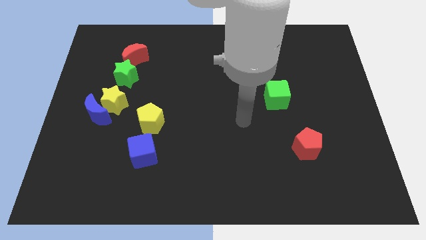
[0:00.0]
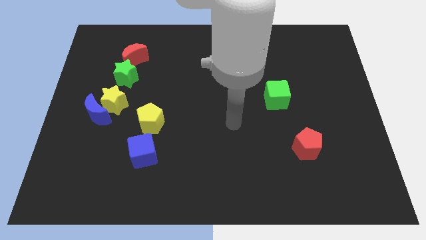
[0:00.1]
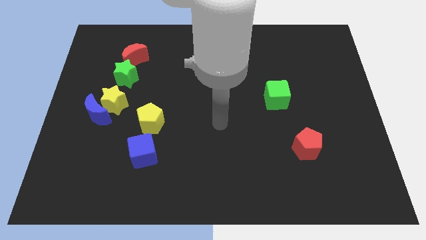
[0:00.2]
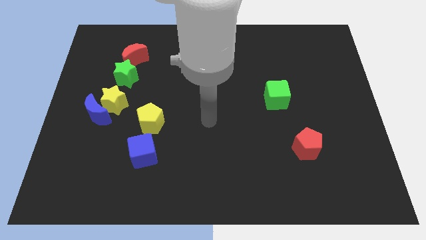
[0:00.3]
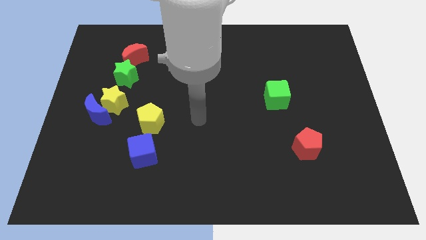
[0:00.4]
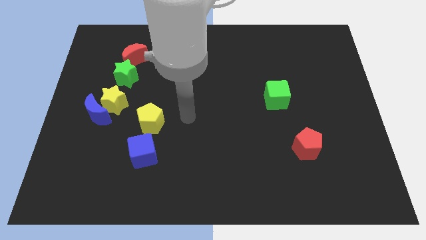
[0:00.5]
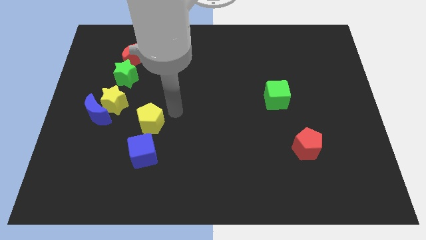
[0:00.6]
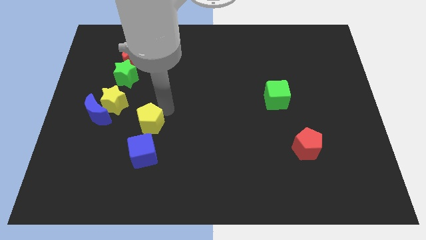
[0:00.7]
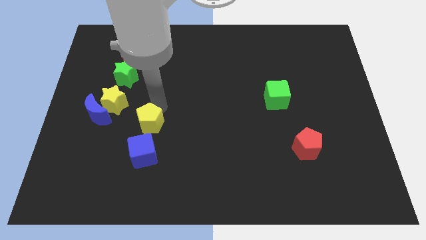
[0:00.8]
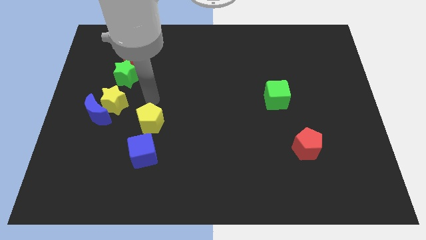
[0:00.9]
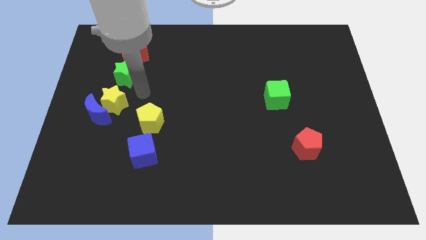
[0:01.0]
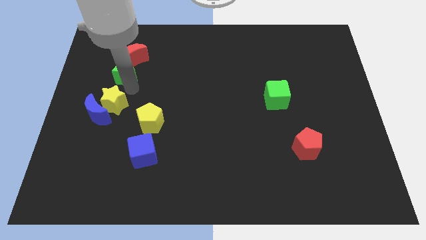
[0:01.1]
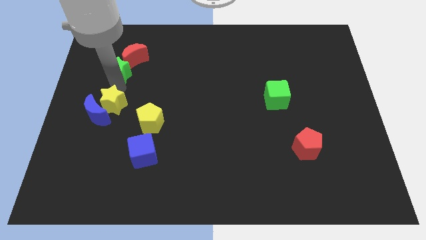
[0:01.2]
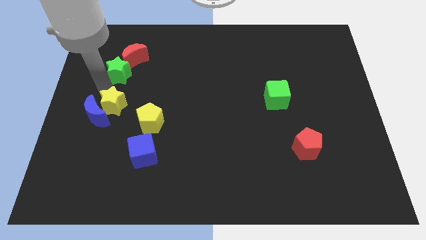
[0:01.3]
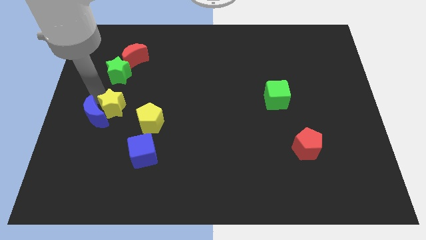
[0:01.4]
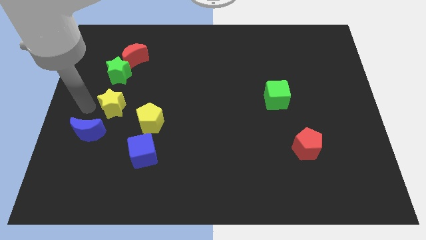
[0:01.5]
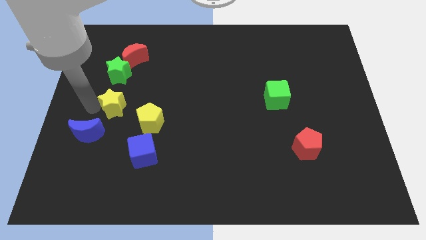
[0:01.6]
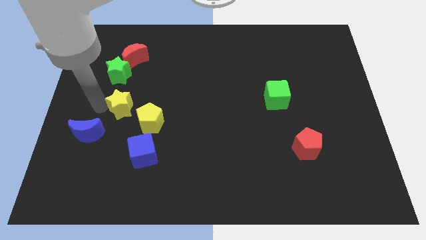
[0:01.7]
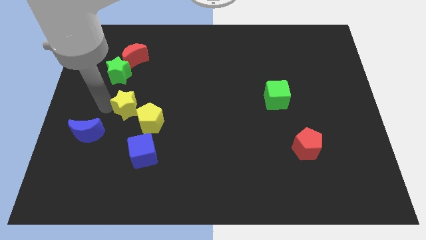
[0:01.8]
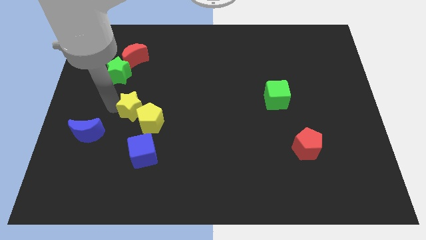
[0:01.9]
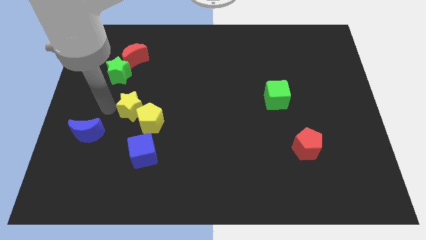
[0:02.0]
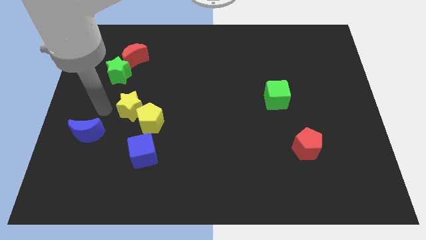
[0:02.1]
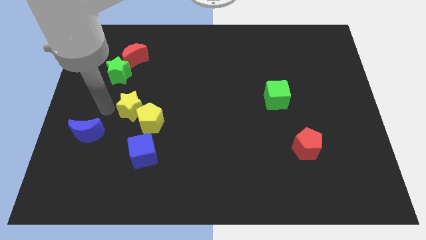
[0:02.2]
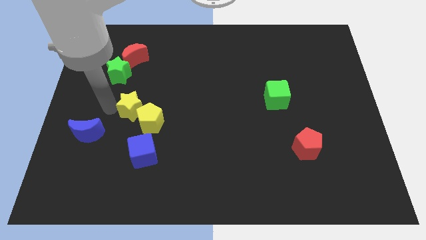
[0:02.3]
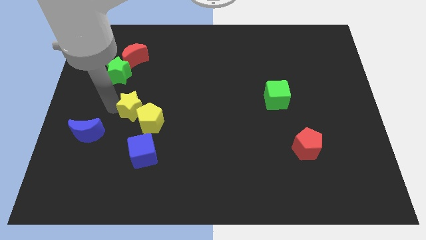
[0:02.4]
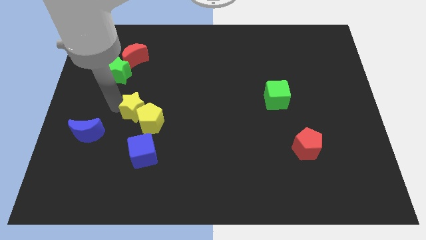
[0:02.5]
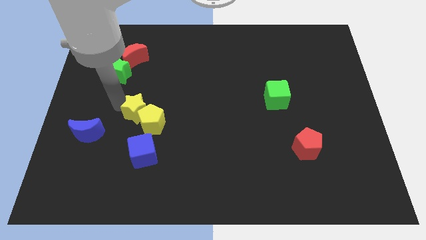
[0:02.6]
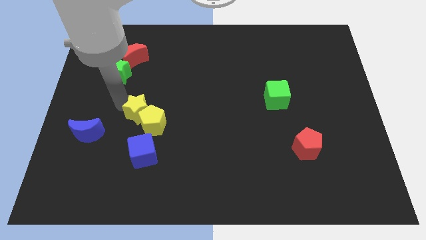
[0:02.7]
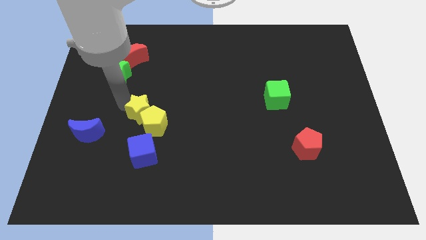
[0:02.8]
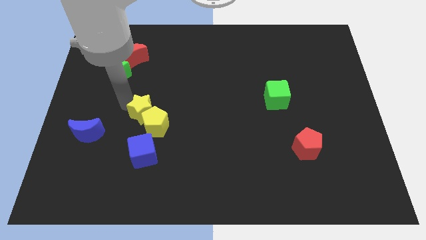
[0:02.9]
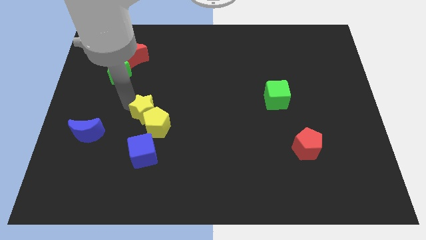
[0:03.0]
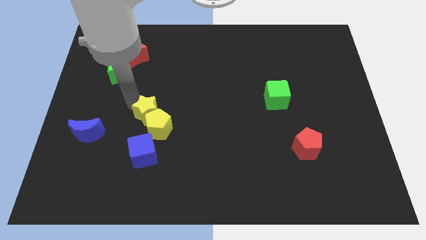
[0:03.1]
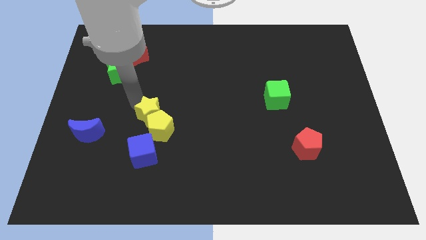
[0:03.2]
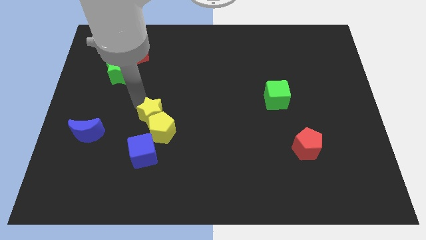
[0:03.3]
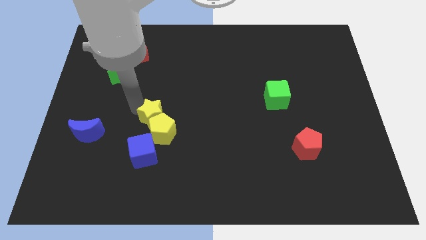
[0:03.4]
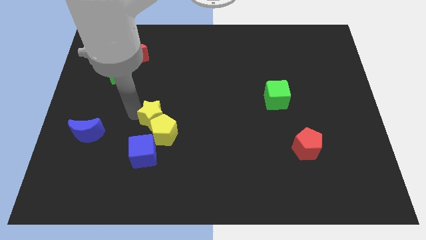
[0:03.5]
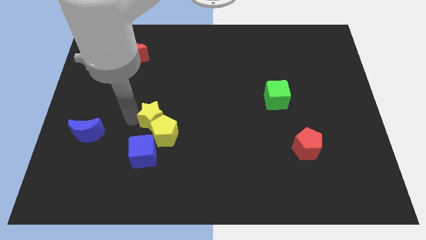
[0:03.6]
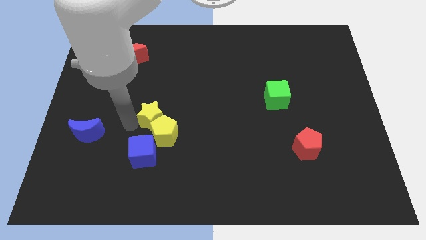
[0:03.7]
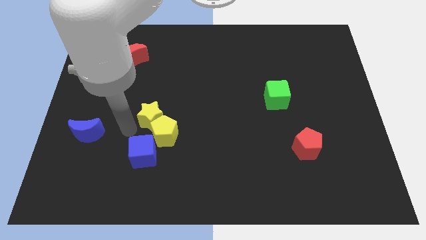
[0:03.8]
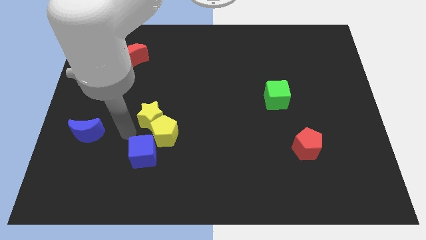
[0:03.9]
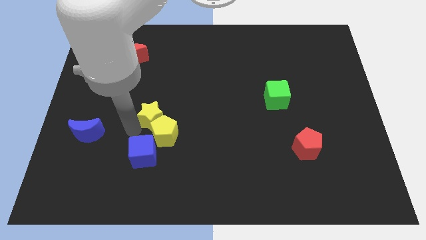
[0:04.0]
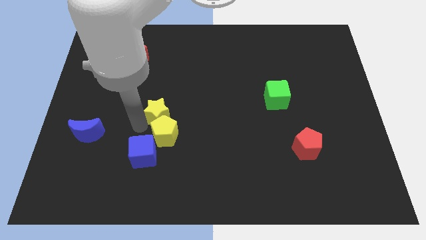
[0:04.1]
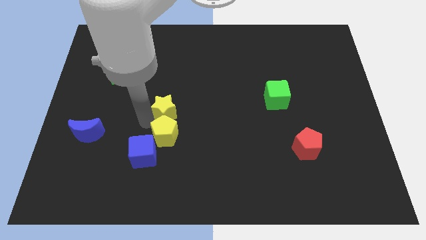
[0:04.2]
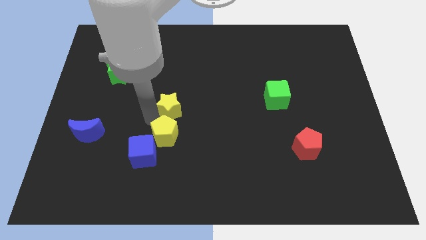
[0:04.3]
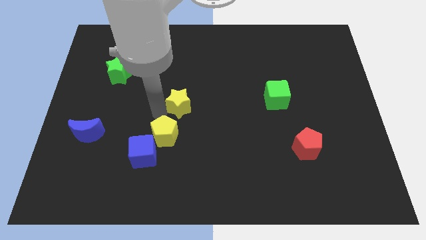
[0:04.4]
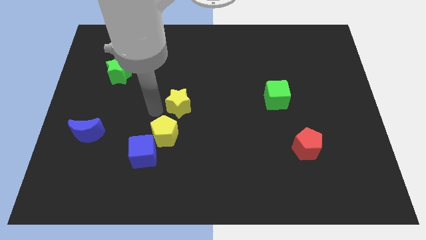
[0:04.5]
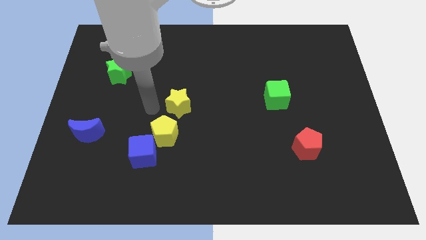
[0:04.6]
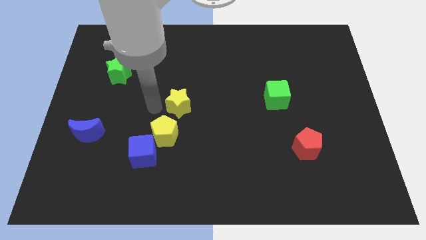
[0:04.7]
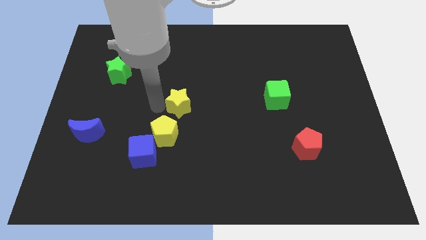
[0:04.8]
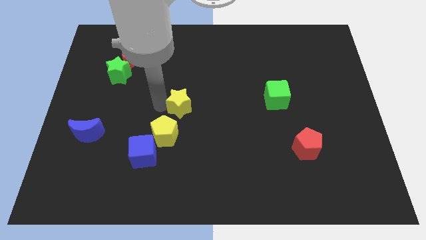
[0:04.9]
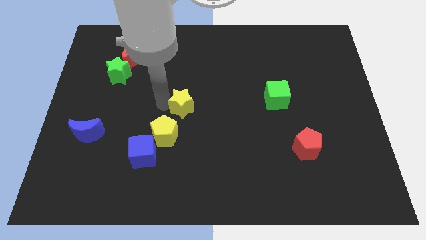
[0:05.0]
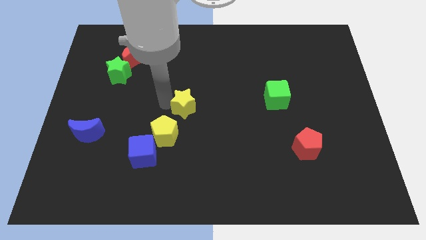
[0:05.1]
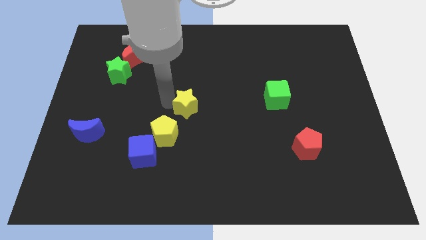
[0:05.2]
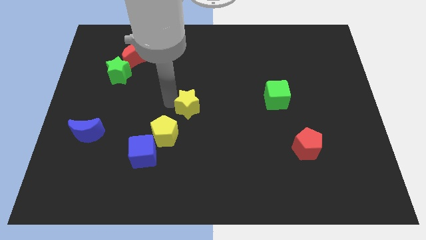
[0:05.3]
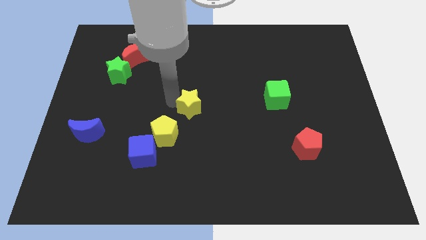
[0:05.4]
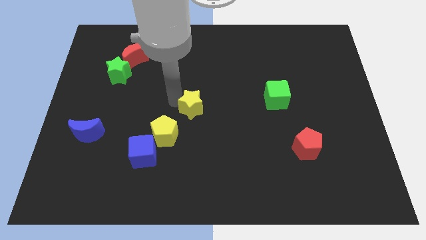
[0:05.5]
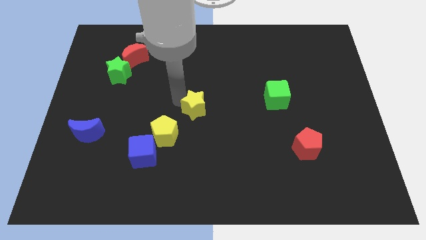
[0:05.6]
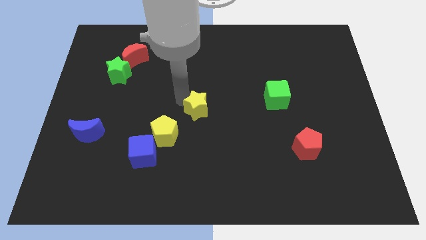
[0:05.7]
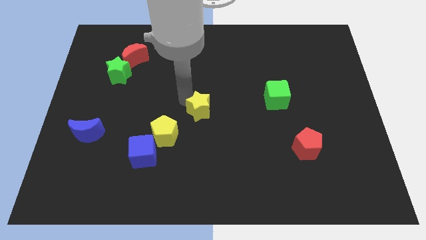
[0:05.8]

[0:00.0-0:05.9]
push the yellow star right

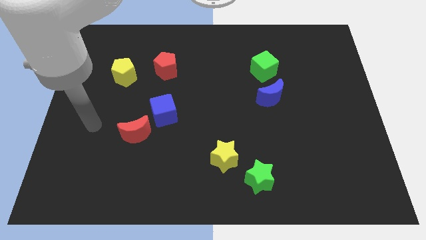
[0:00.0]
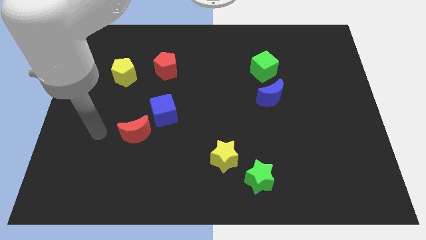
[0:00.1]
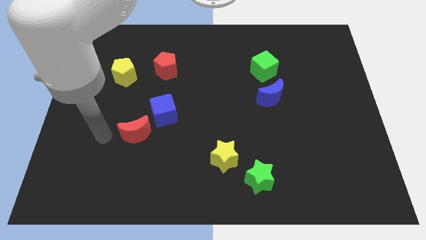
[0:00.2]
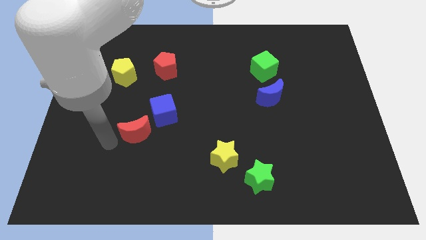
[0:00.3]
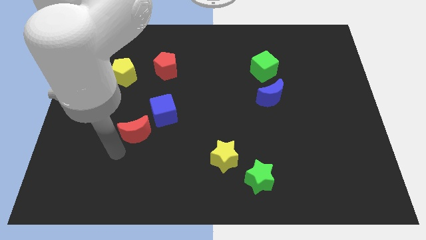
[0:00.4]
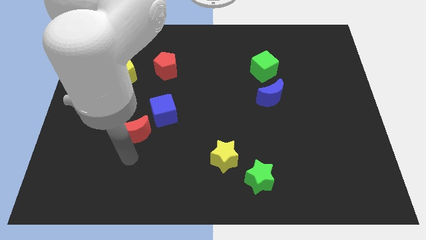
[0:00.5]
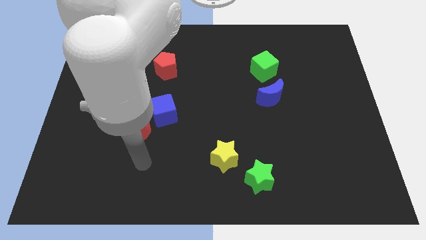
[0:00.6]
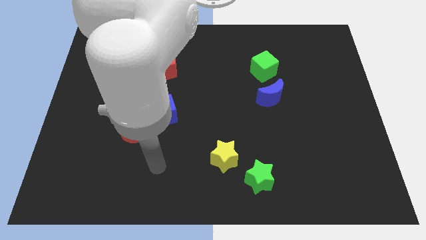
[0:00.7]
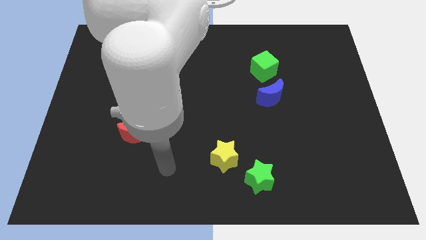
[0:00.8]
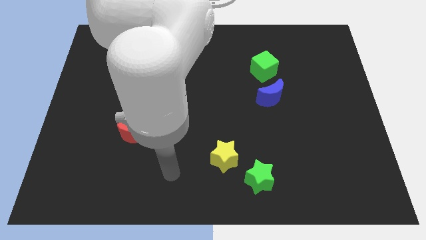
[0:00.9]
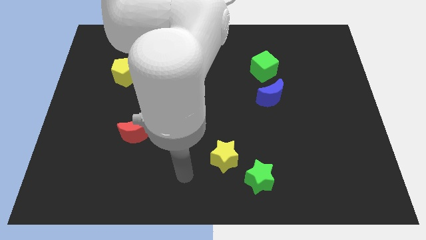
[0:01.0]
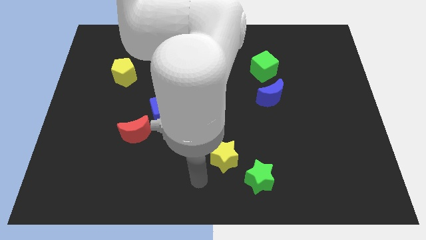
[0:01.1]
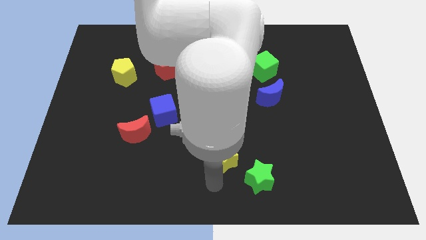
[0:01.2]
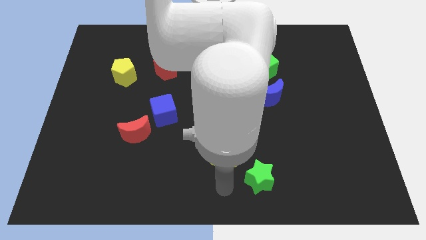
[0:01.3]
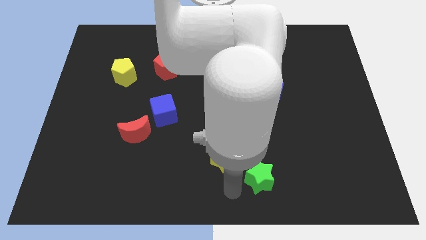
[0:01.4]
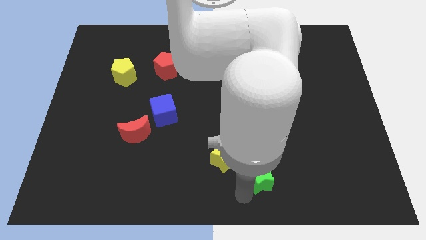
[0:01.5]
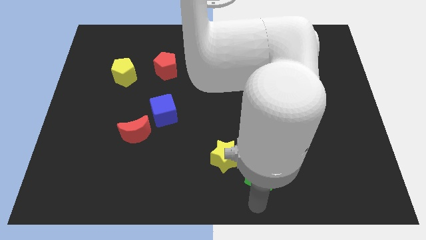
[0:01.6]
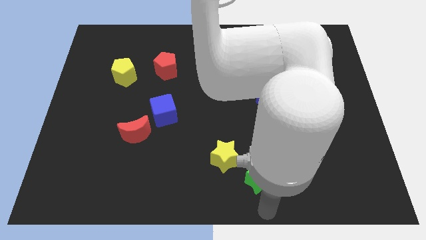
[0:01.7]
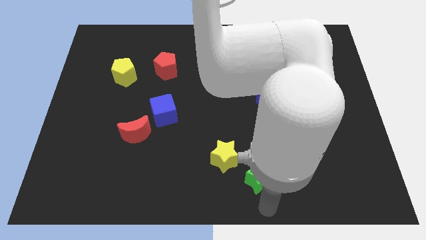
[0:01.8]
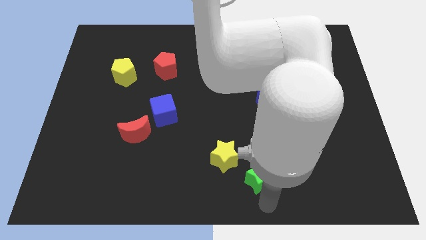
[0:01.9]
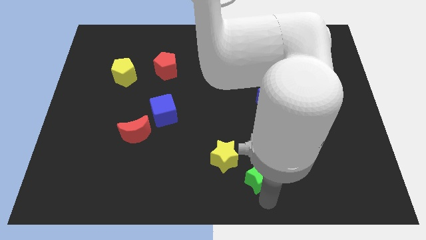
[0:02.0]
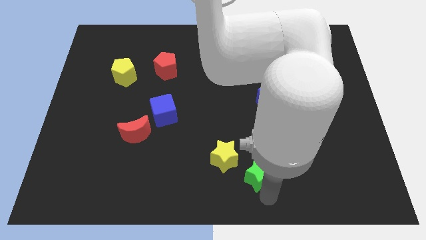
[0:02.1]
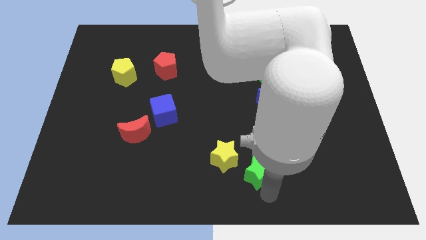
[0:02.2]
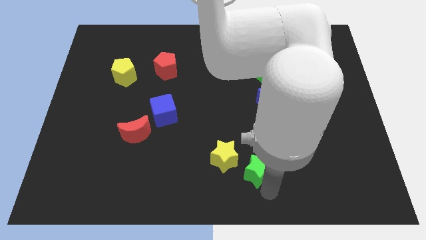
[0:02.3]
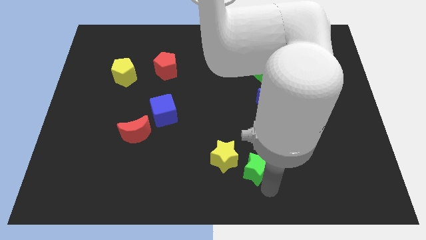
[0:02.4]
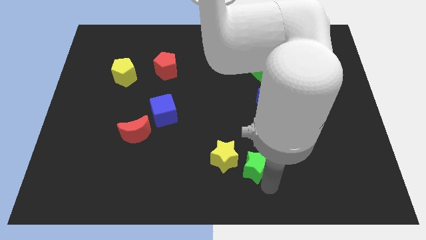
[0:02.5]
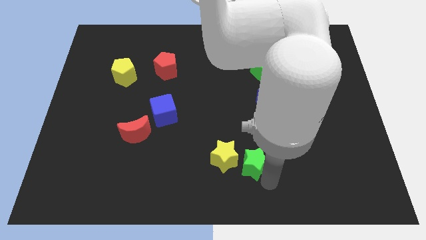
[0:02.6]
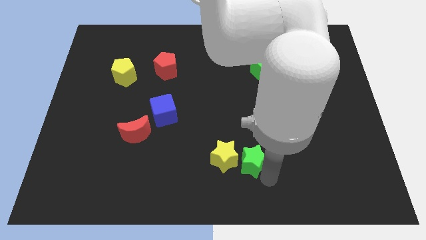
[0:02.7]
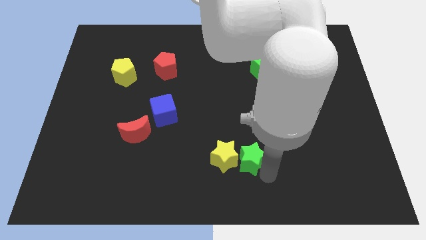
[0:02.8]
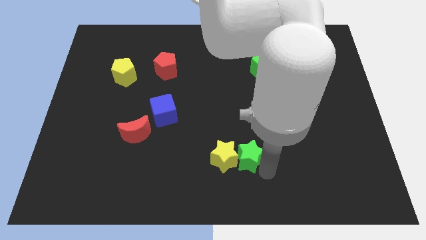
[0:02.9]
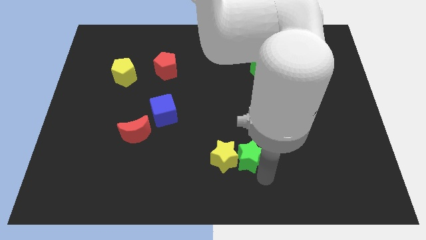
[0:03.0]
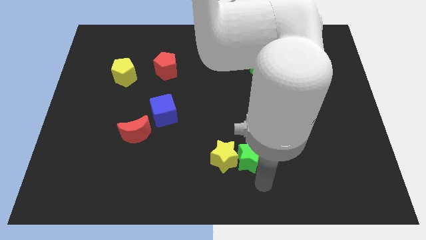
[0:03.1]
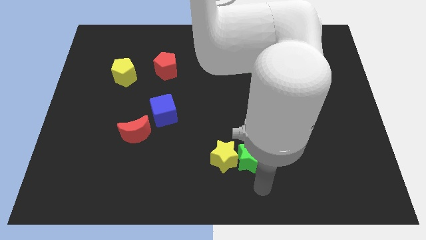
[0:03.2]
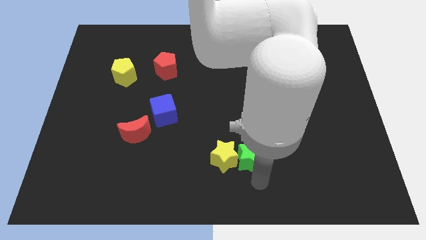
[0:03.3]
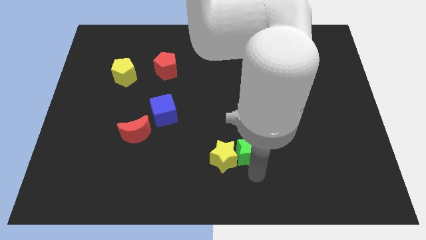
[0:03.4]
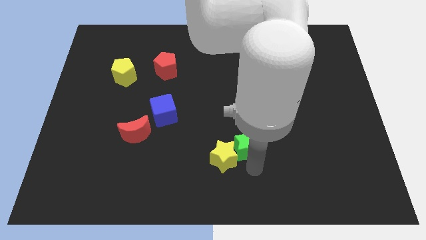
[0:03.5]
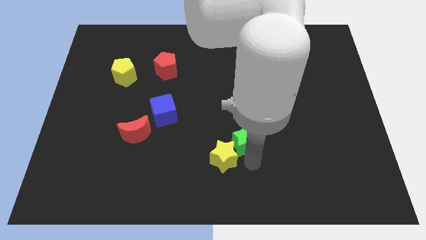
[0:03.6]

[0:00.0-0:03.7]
push the green star up and to the left a little bit
